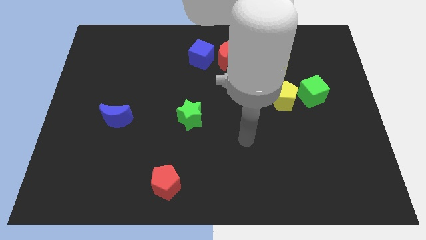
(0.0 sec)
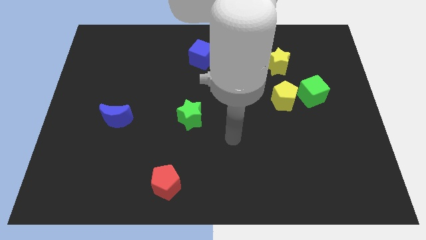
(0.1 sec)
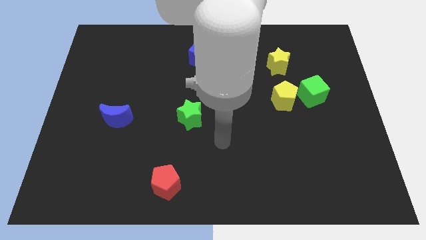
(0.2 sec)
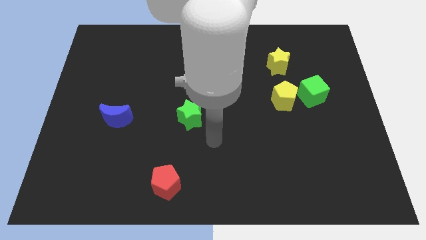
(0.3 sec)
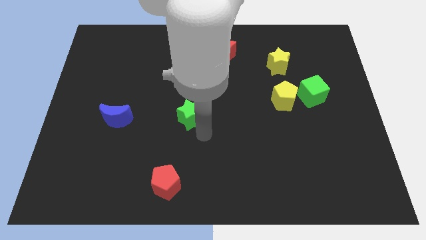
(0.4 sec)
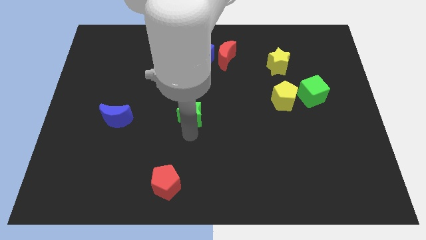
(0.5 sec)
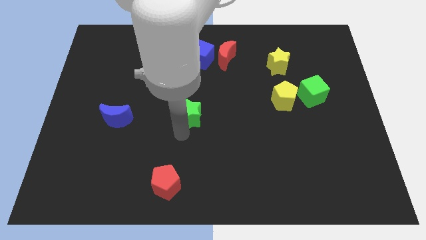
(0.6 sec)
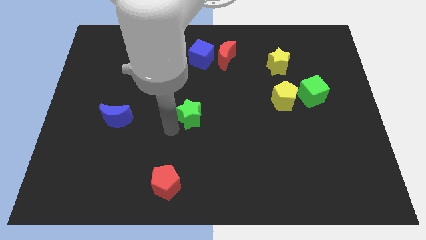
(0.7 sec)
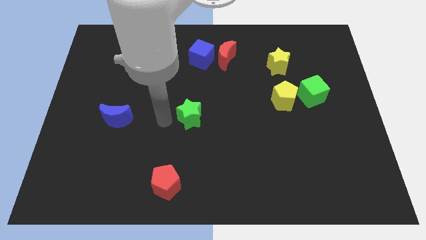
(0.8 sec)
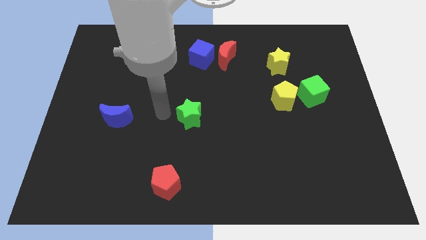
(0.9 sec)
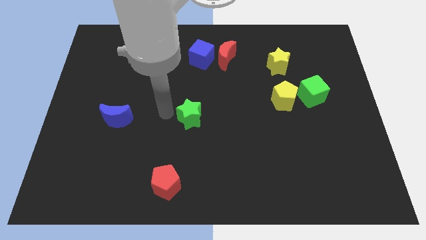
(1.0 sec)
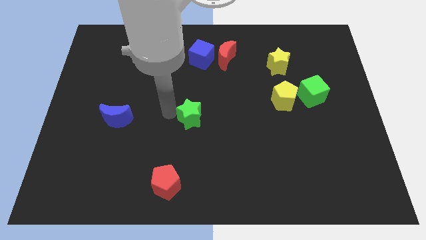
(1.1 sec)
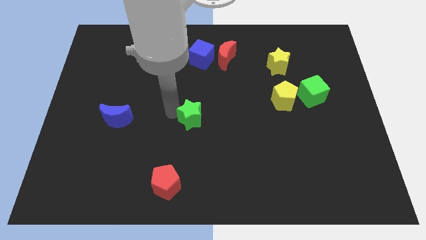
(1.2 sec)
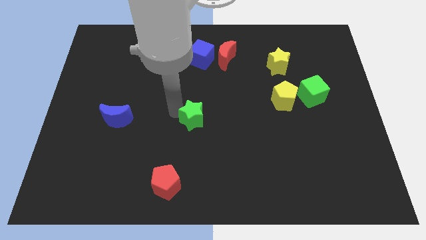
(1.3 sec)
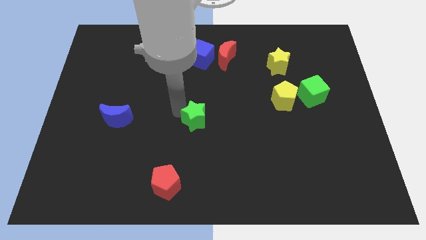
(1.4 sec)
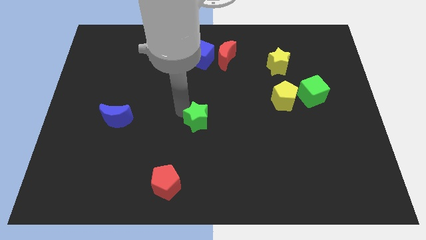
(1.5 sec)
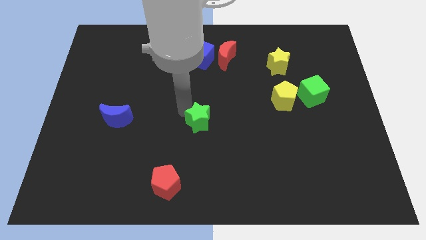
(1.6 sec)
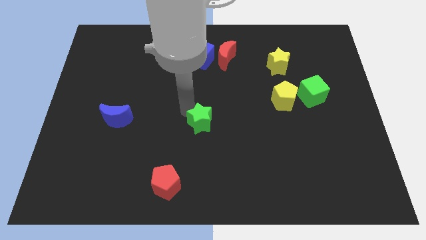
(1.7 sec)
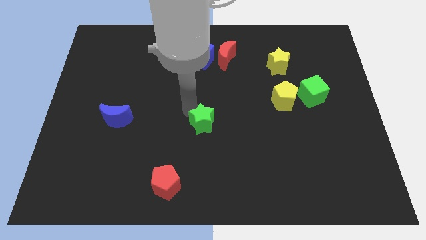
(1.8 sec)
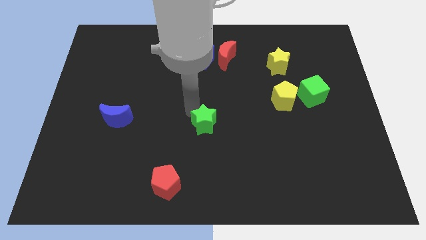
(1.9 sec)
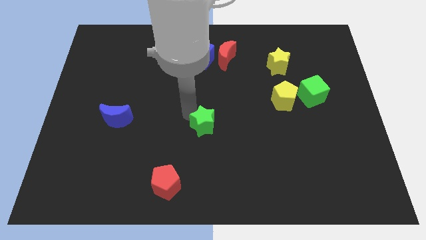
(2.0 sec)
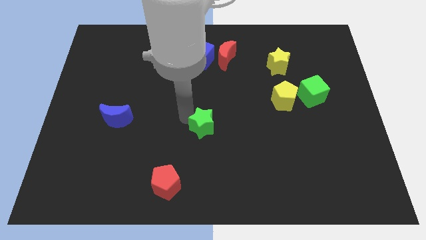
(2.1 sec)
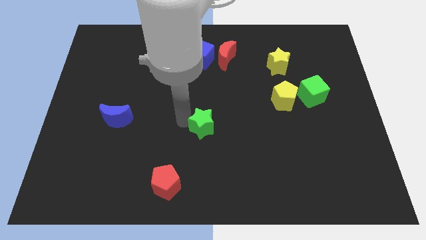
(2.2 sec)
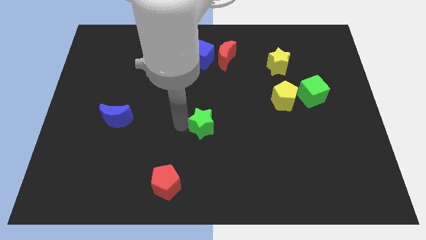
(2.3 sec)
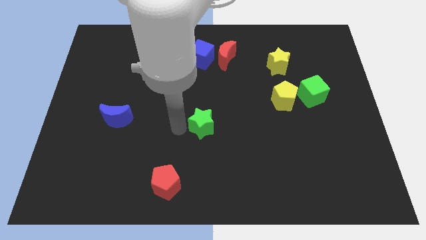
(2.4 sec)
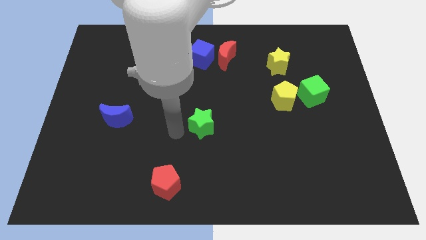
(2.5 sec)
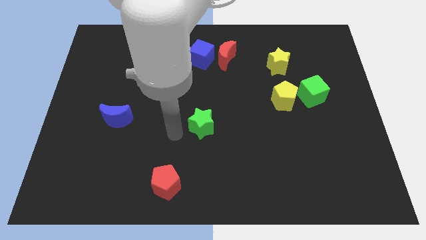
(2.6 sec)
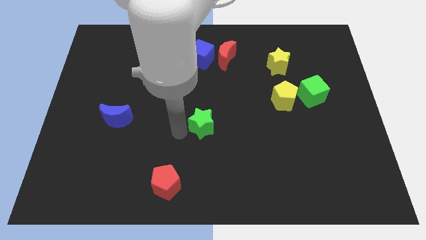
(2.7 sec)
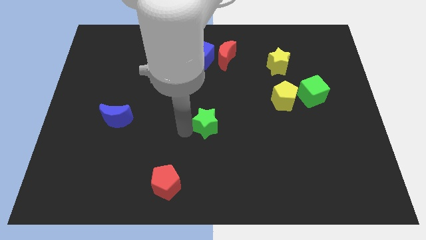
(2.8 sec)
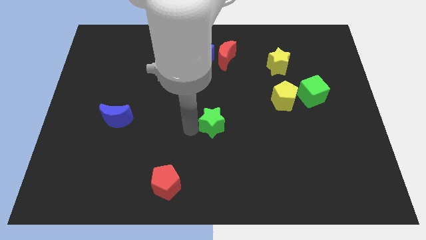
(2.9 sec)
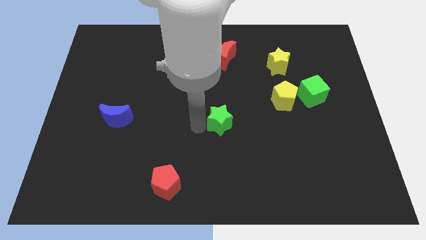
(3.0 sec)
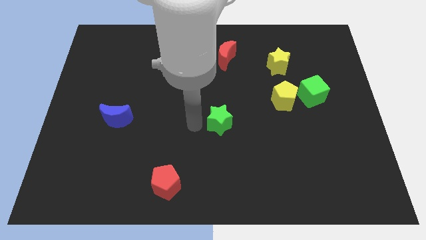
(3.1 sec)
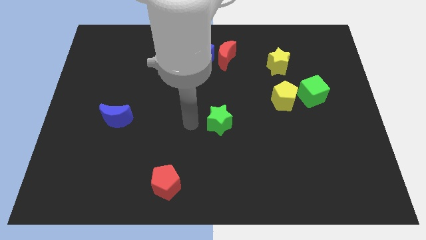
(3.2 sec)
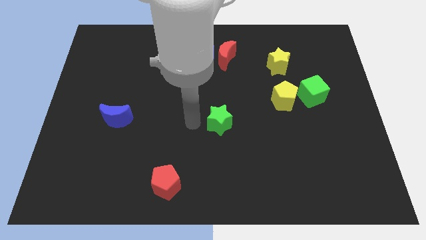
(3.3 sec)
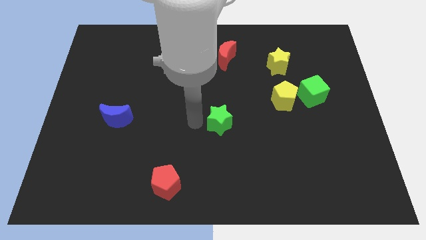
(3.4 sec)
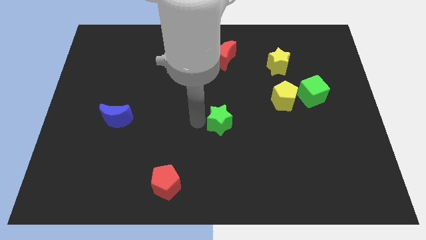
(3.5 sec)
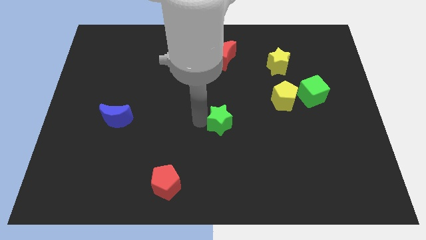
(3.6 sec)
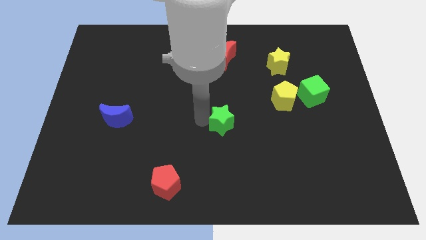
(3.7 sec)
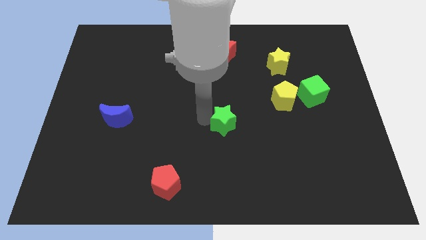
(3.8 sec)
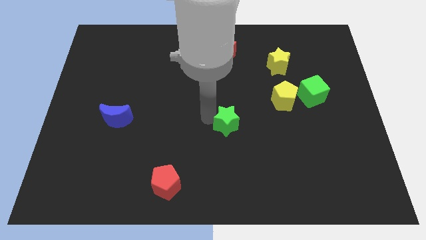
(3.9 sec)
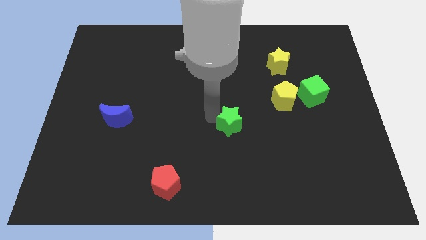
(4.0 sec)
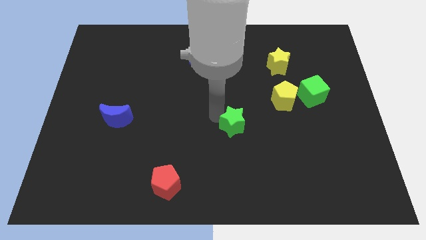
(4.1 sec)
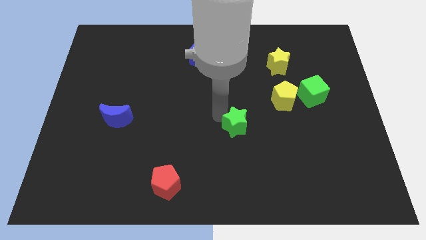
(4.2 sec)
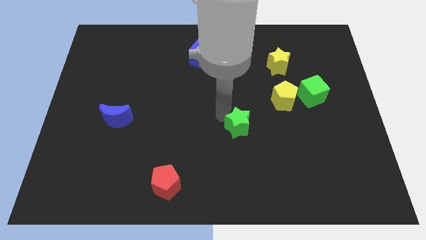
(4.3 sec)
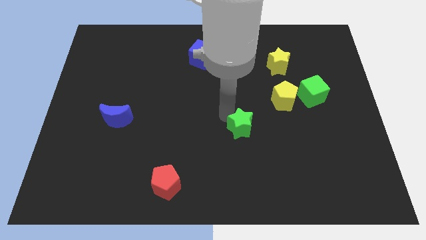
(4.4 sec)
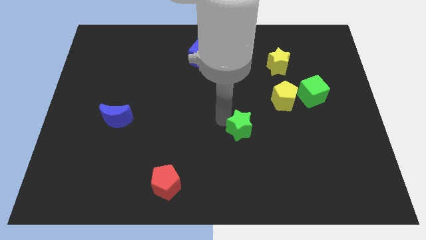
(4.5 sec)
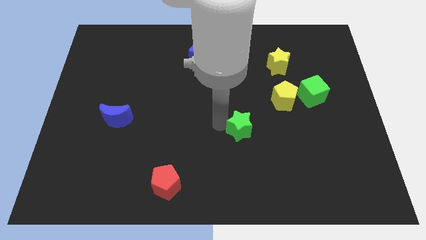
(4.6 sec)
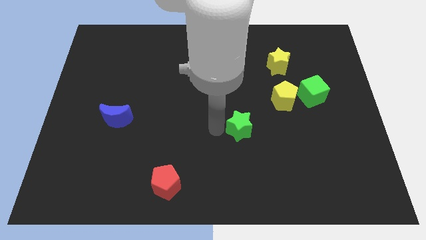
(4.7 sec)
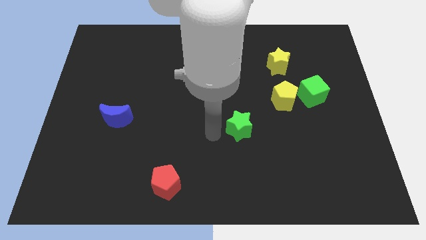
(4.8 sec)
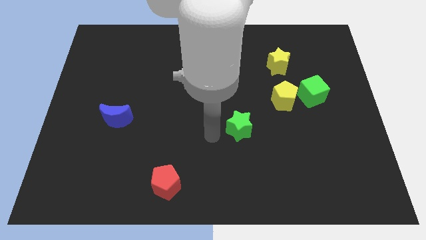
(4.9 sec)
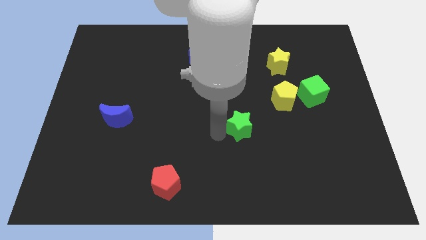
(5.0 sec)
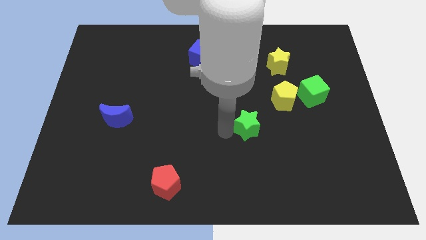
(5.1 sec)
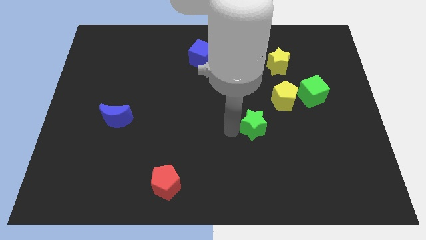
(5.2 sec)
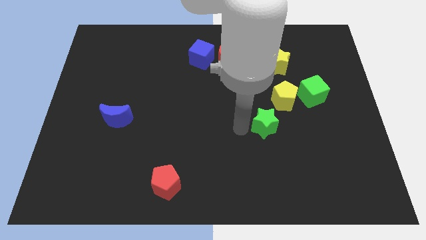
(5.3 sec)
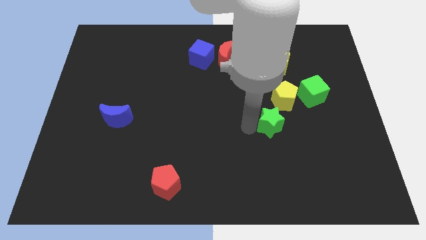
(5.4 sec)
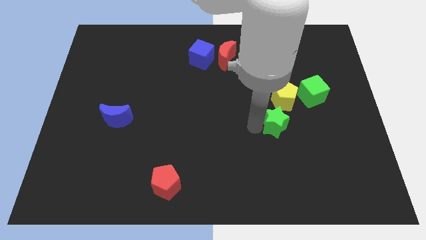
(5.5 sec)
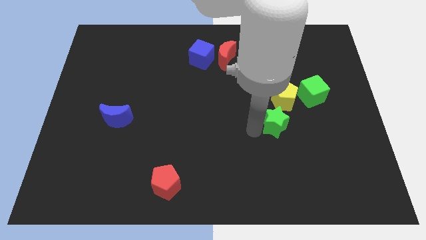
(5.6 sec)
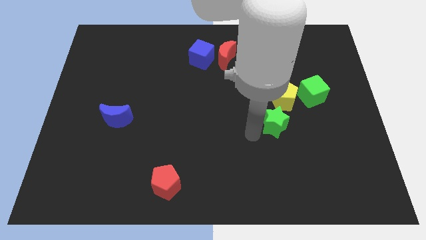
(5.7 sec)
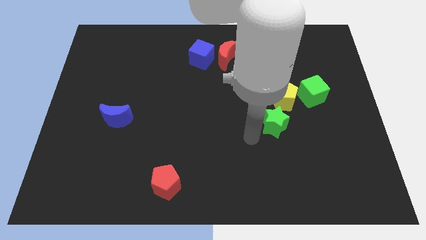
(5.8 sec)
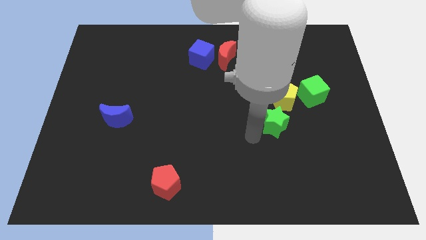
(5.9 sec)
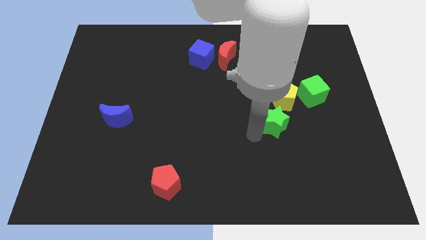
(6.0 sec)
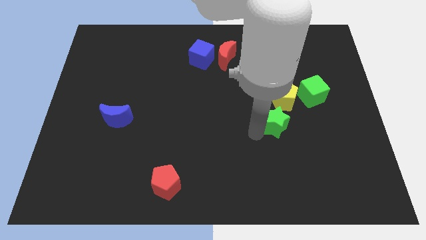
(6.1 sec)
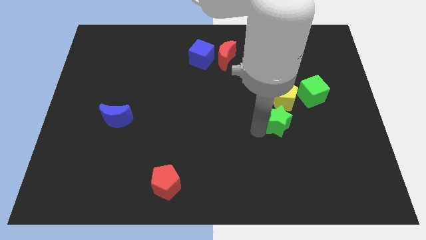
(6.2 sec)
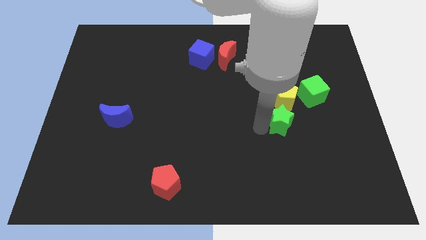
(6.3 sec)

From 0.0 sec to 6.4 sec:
push the green star right

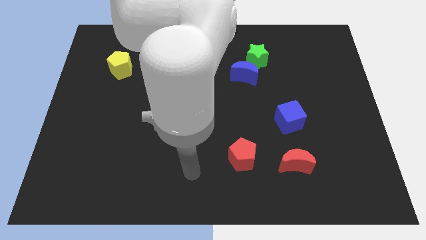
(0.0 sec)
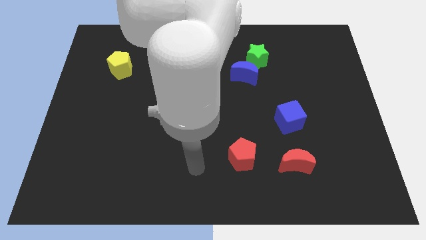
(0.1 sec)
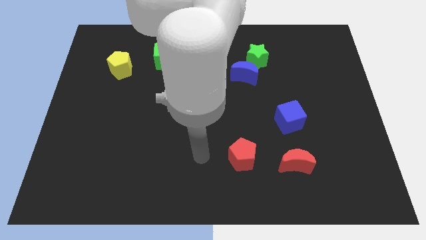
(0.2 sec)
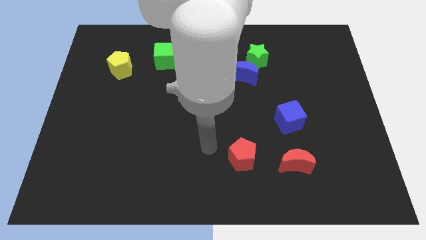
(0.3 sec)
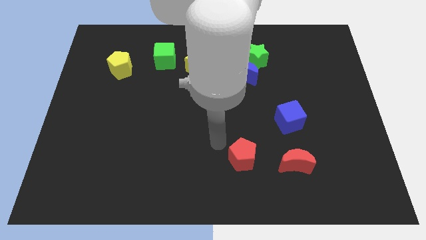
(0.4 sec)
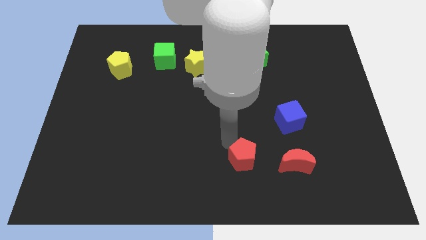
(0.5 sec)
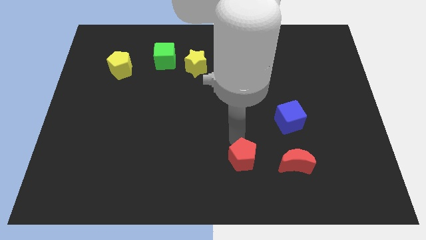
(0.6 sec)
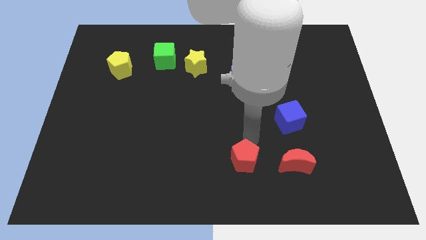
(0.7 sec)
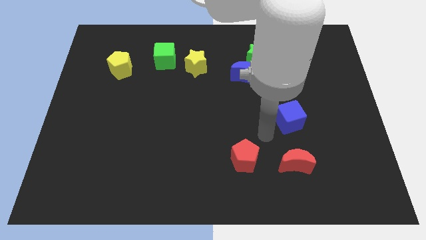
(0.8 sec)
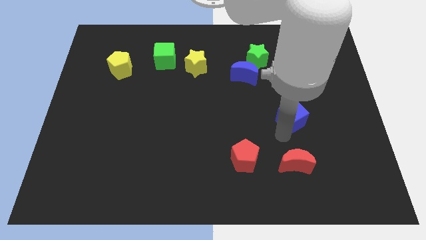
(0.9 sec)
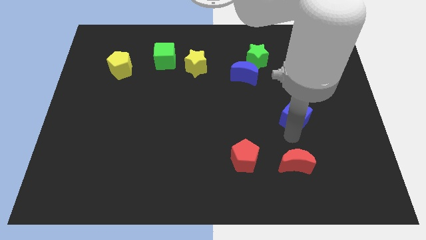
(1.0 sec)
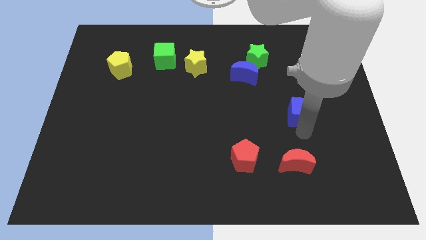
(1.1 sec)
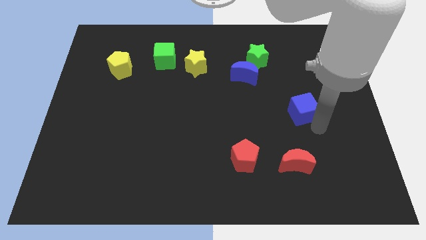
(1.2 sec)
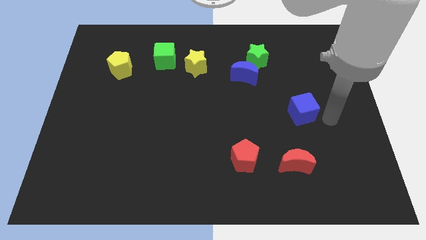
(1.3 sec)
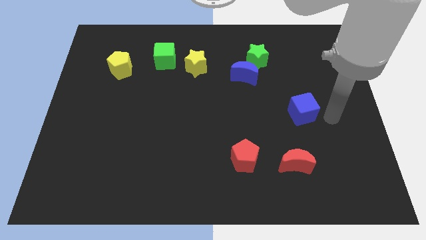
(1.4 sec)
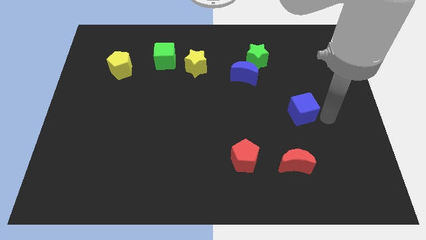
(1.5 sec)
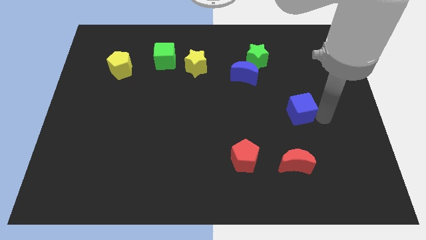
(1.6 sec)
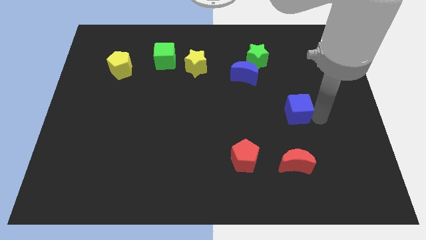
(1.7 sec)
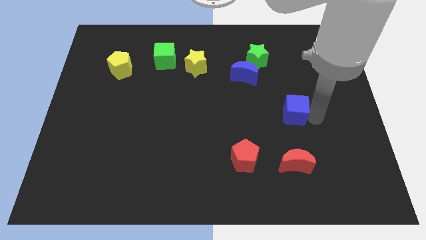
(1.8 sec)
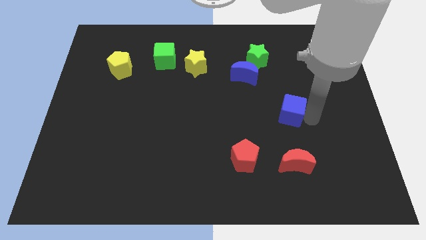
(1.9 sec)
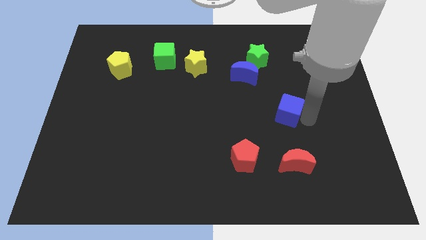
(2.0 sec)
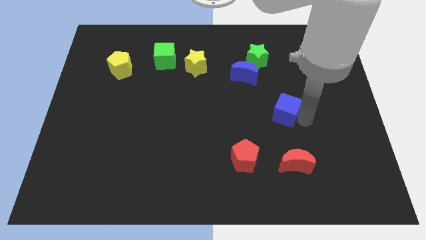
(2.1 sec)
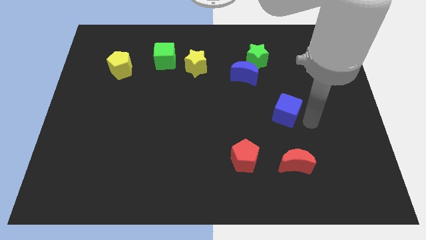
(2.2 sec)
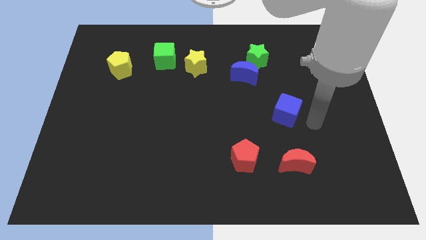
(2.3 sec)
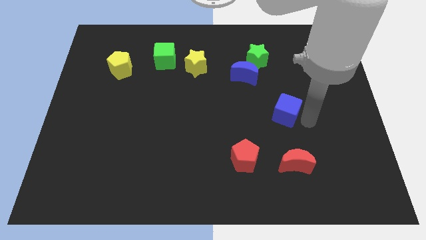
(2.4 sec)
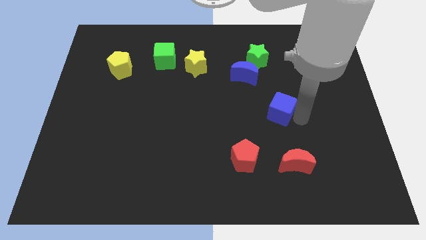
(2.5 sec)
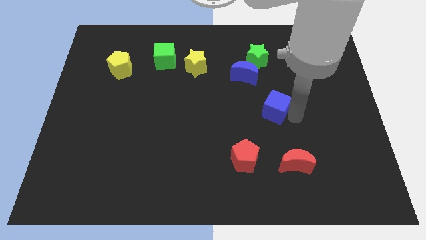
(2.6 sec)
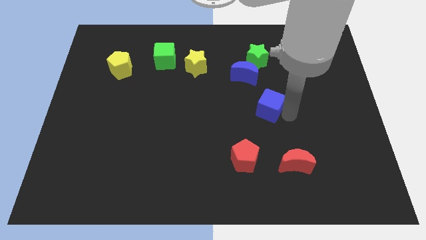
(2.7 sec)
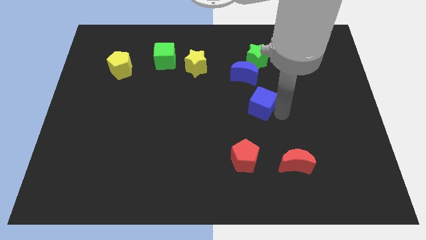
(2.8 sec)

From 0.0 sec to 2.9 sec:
push the blue cube upwards and left slightly
